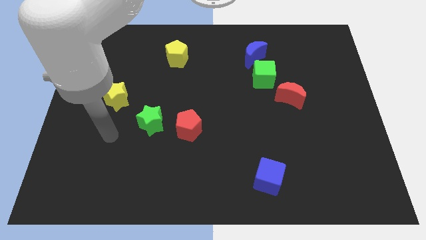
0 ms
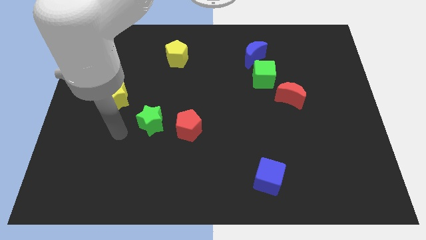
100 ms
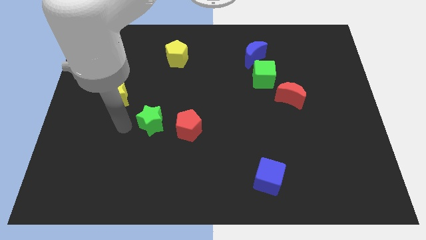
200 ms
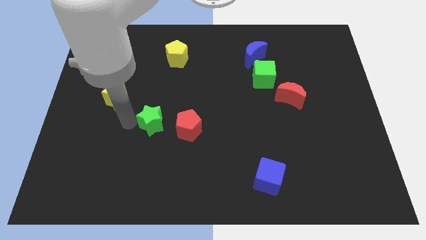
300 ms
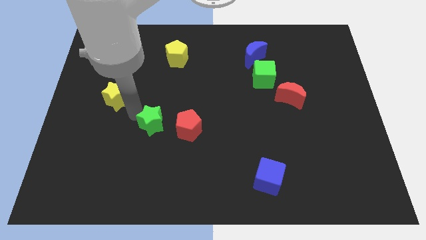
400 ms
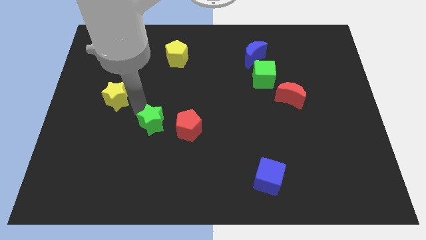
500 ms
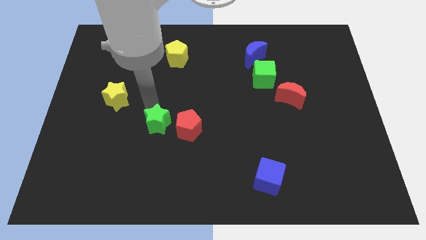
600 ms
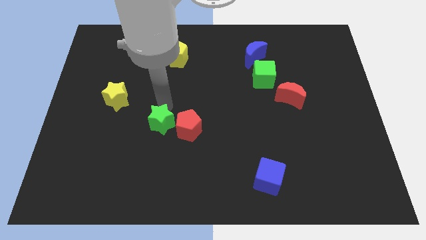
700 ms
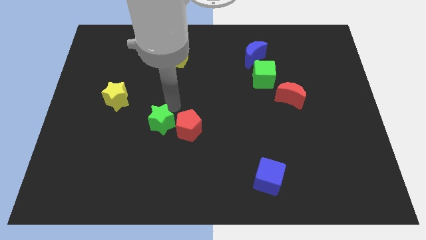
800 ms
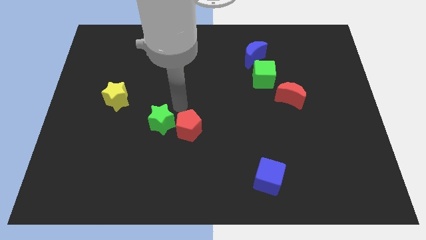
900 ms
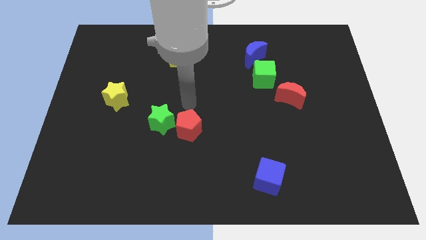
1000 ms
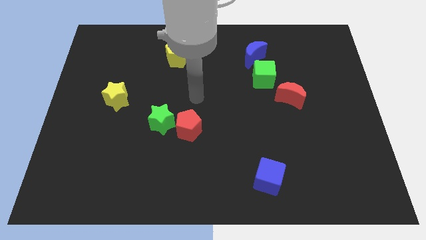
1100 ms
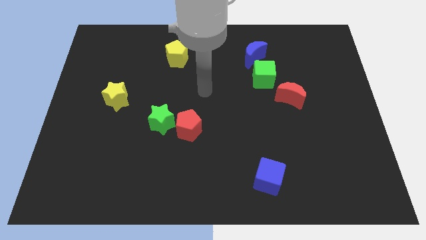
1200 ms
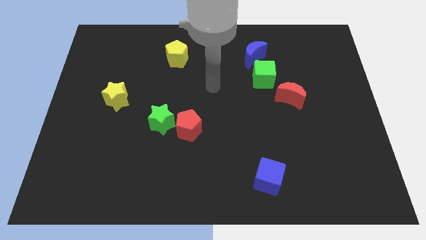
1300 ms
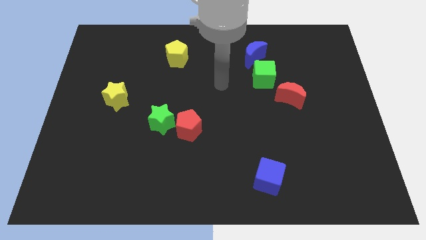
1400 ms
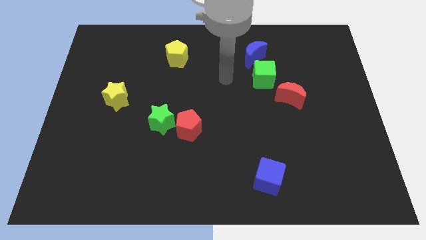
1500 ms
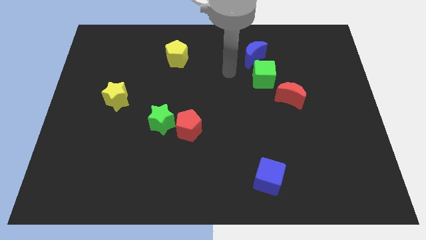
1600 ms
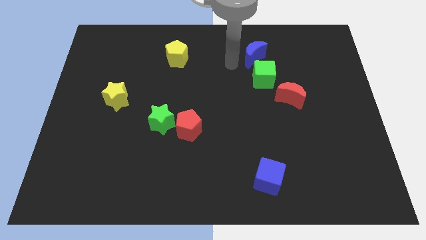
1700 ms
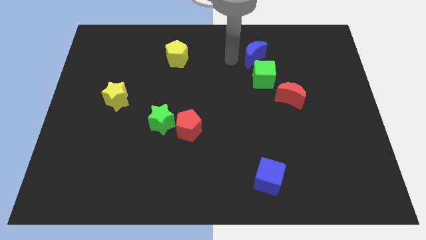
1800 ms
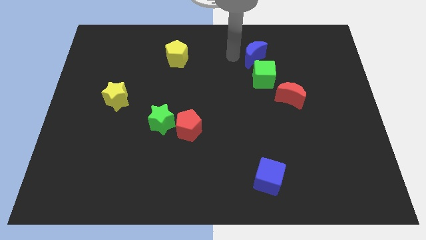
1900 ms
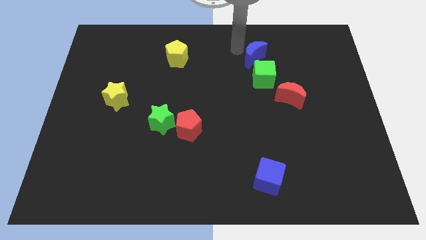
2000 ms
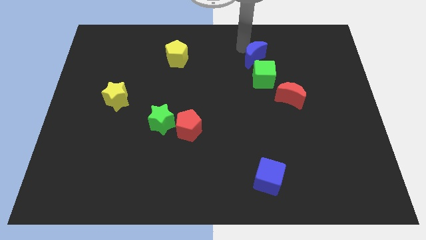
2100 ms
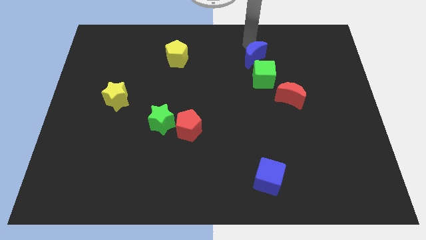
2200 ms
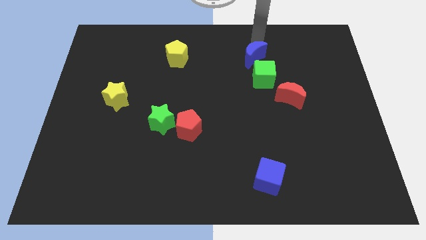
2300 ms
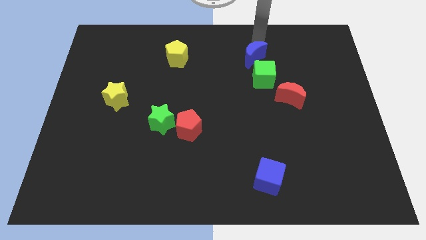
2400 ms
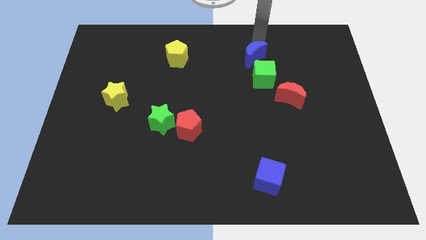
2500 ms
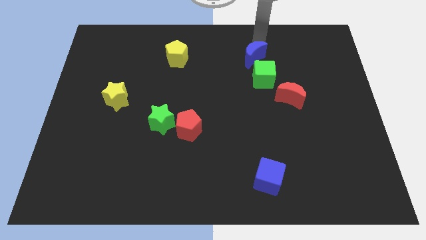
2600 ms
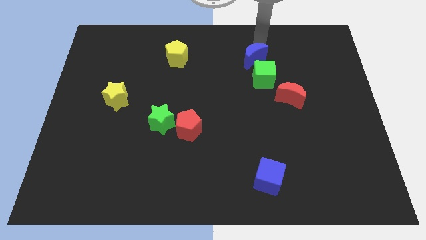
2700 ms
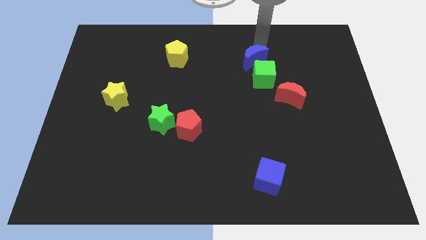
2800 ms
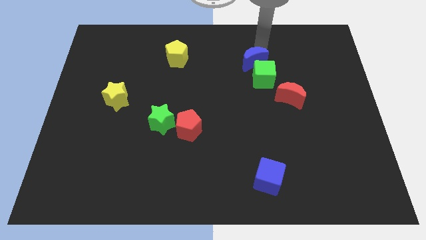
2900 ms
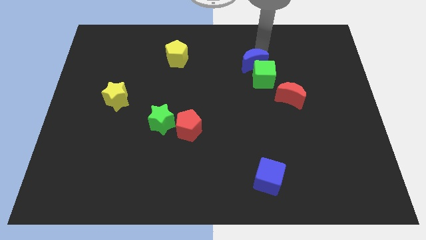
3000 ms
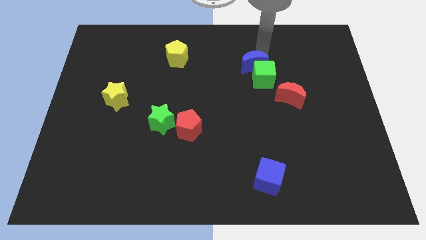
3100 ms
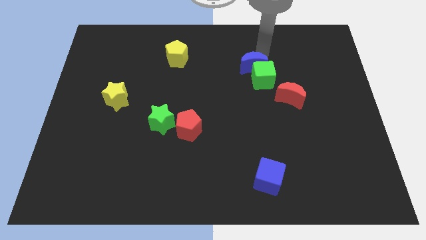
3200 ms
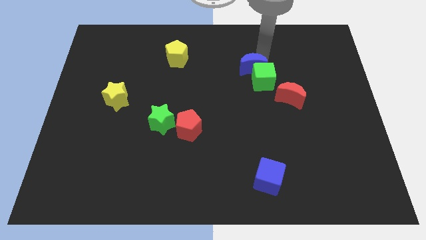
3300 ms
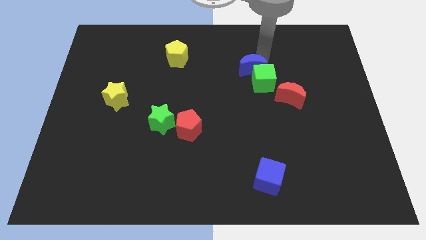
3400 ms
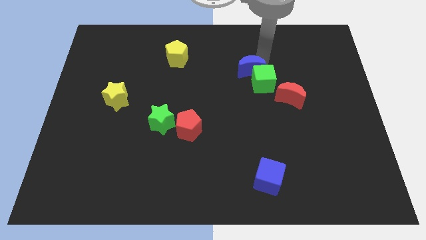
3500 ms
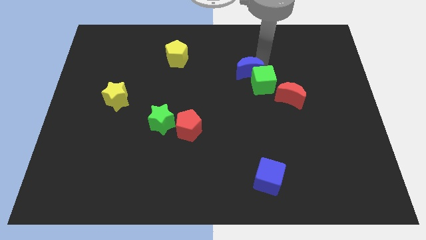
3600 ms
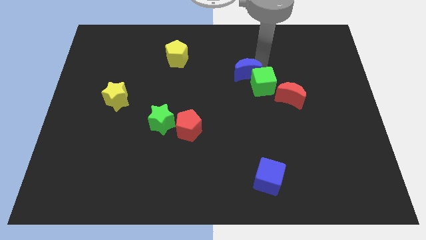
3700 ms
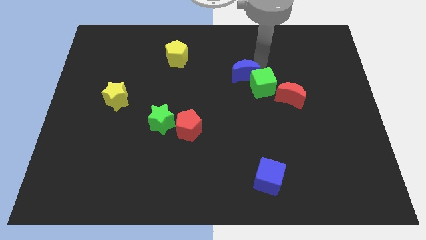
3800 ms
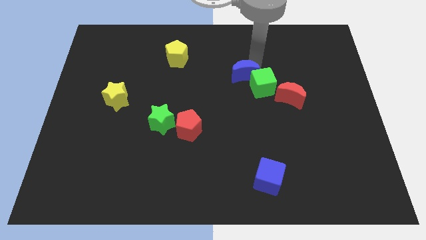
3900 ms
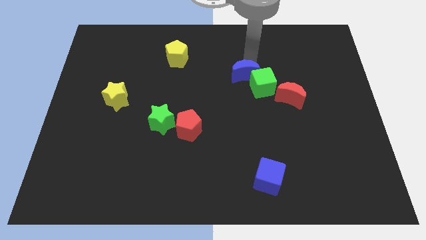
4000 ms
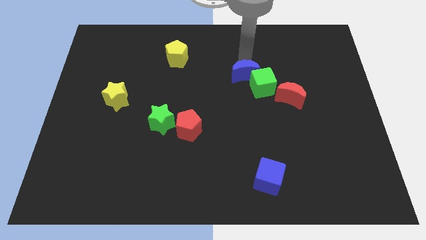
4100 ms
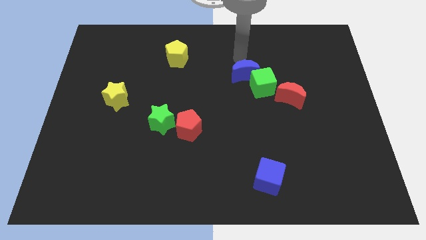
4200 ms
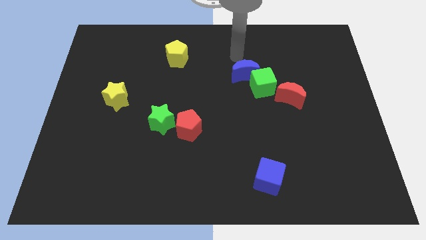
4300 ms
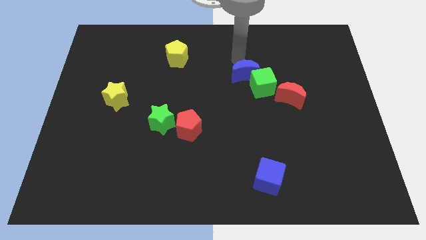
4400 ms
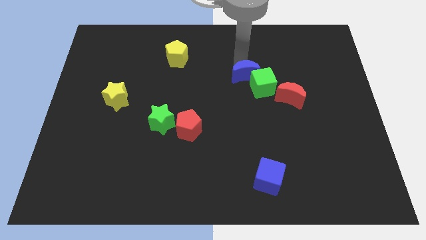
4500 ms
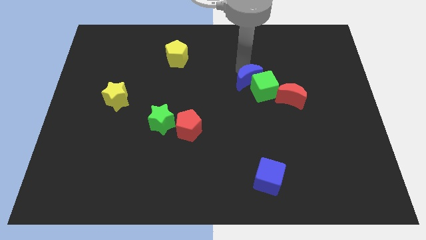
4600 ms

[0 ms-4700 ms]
slightly move the blue moon downwards

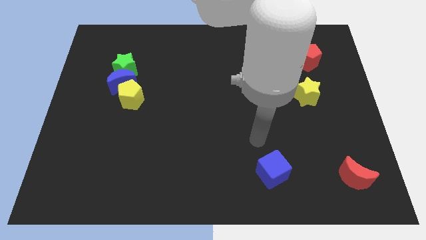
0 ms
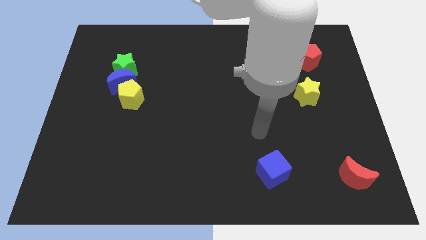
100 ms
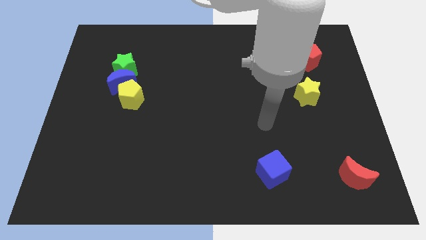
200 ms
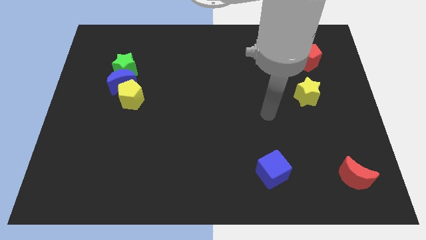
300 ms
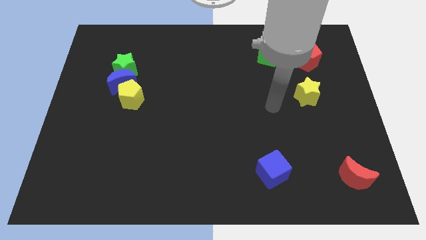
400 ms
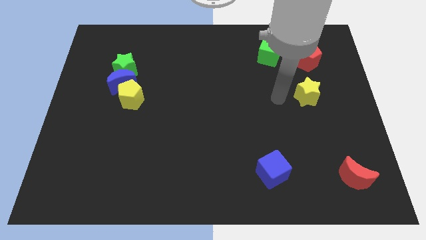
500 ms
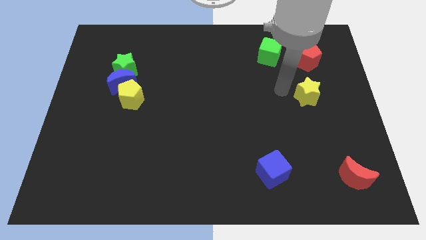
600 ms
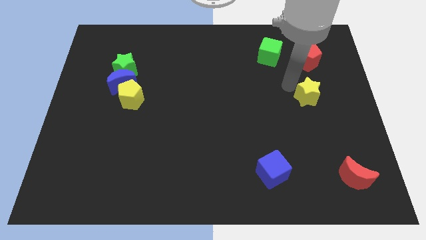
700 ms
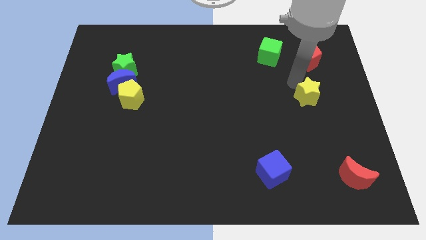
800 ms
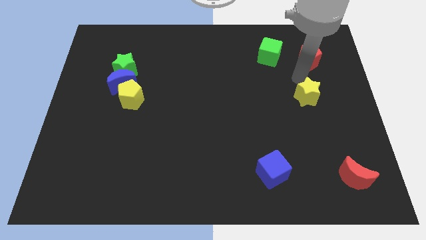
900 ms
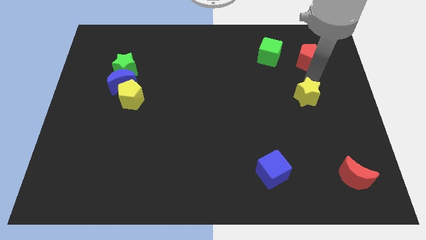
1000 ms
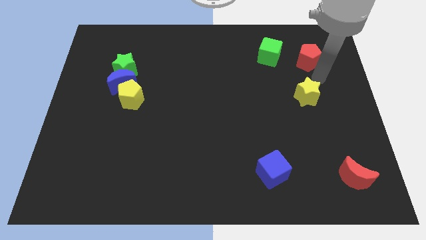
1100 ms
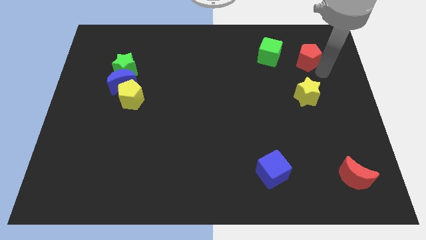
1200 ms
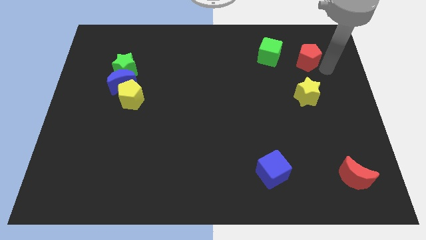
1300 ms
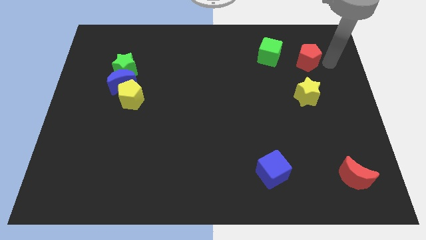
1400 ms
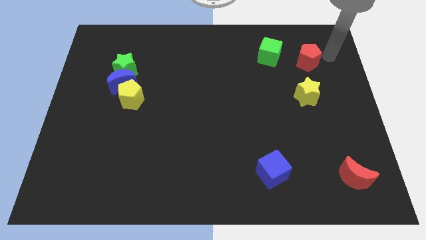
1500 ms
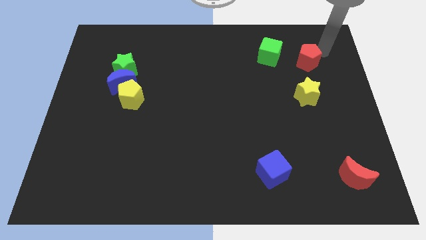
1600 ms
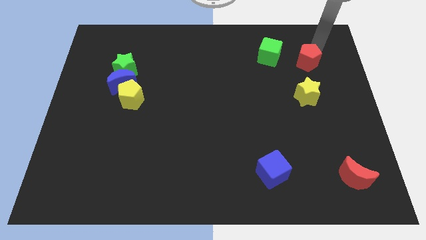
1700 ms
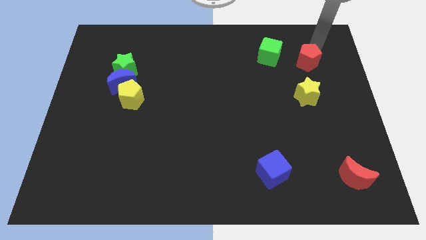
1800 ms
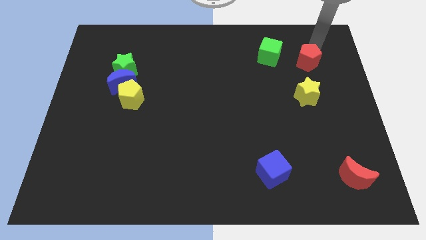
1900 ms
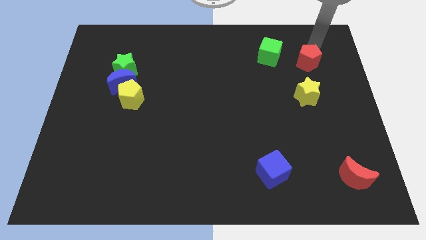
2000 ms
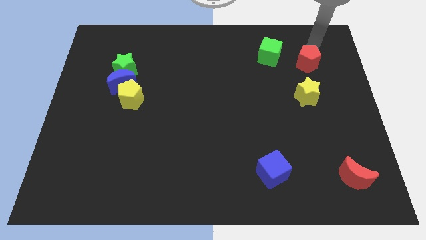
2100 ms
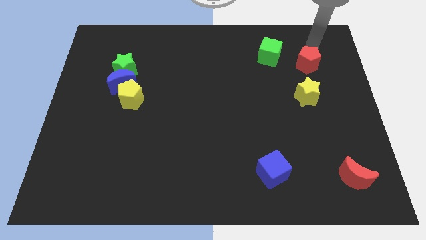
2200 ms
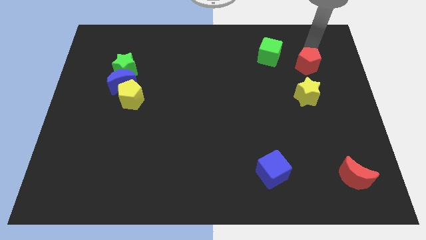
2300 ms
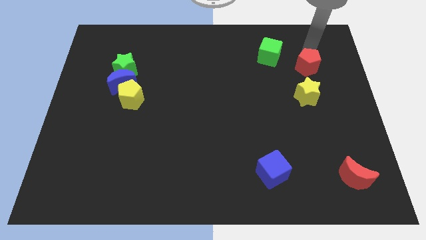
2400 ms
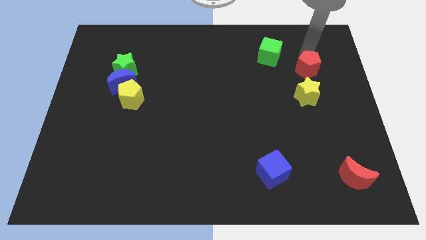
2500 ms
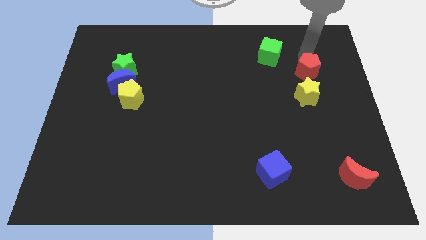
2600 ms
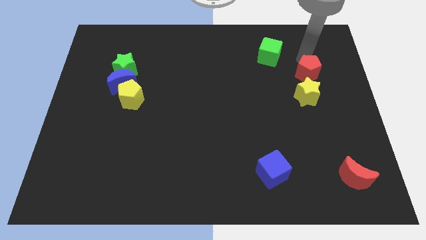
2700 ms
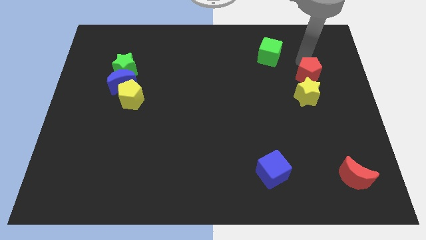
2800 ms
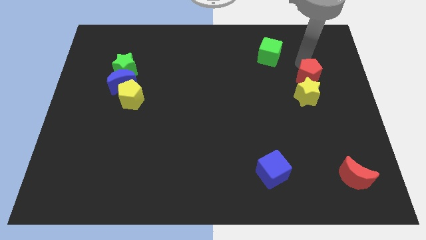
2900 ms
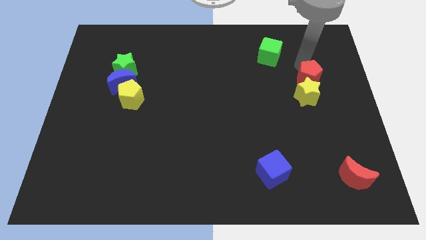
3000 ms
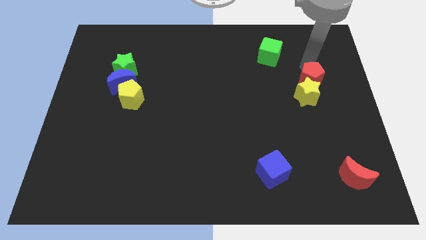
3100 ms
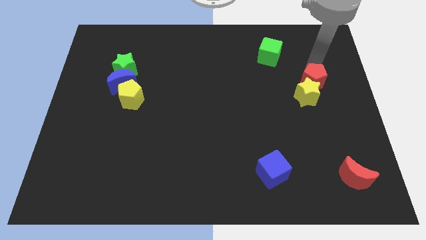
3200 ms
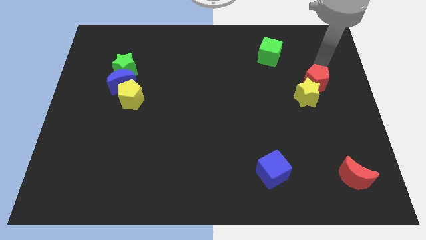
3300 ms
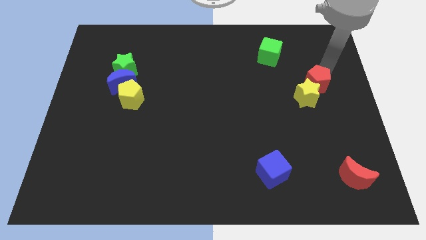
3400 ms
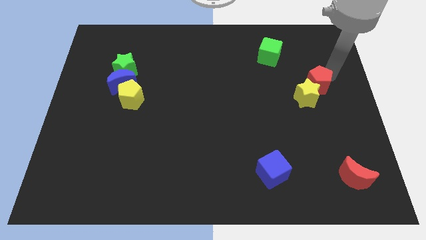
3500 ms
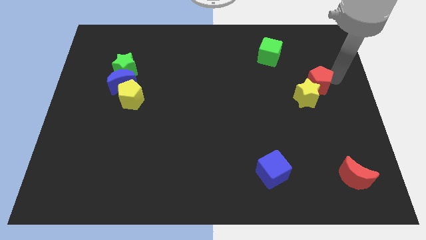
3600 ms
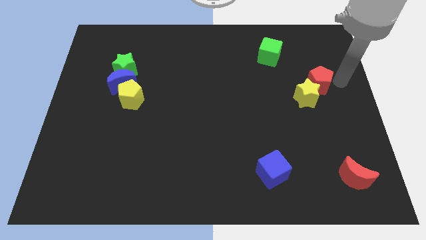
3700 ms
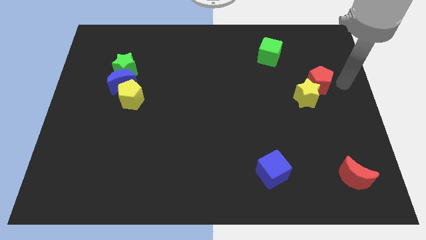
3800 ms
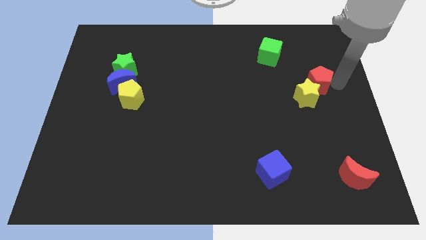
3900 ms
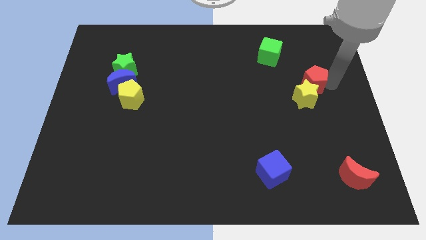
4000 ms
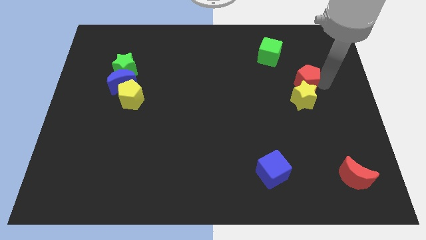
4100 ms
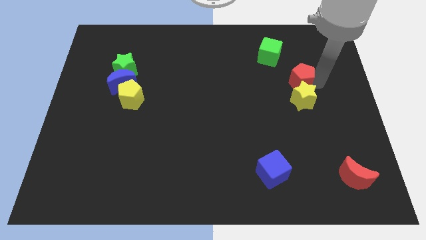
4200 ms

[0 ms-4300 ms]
slightly move the red pentagon down and to the left diagonally
